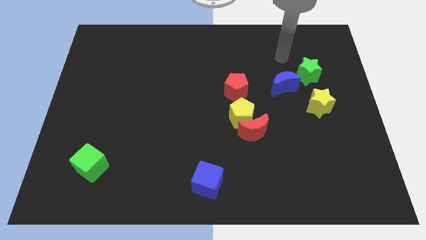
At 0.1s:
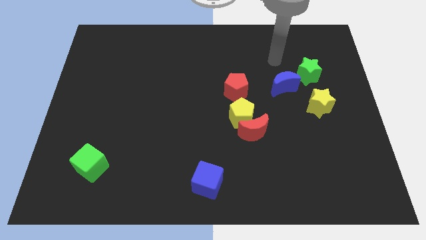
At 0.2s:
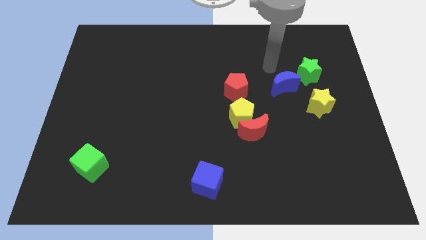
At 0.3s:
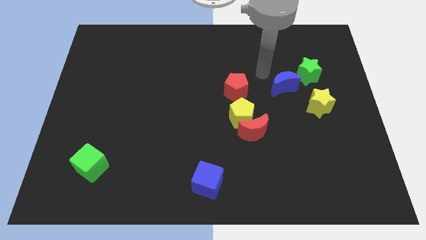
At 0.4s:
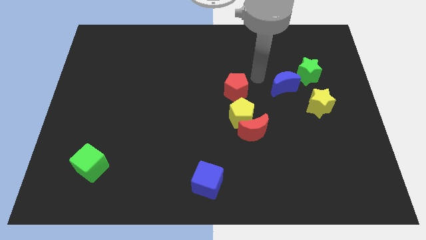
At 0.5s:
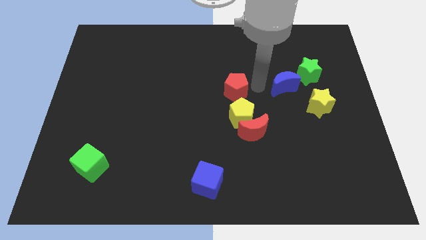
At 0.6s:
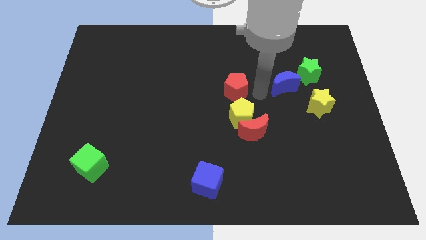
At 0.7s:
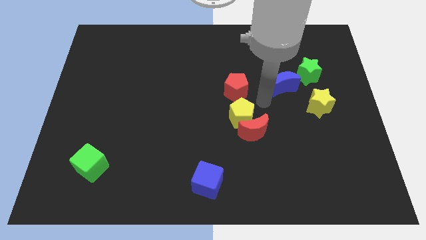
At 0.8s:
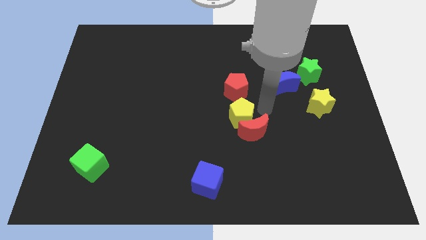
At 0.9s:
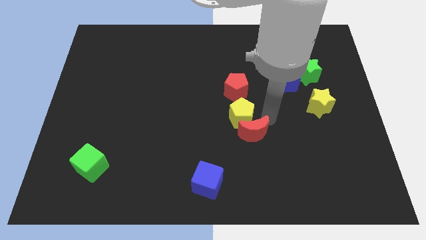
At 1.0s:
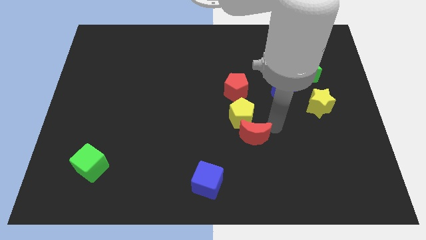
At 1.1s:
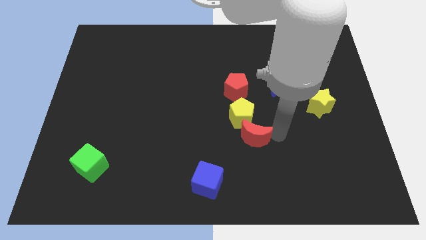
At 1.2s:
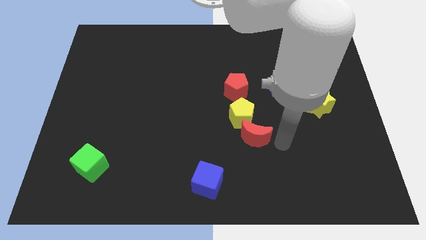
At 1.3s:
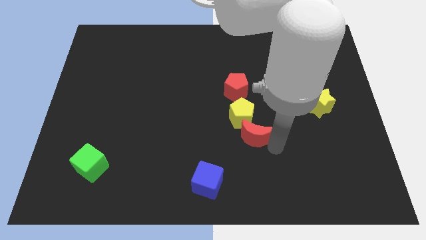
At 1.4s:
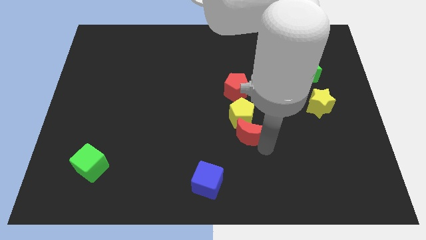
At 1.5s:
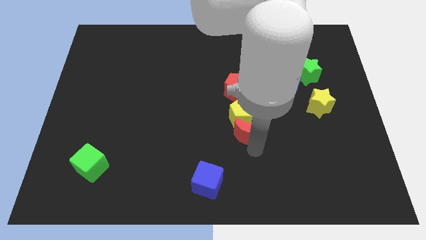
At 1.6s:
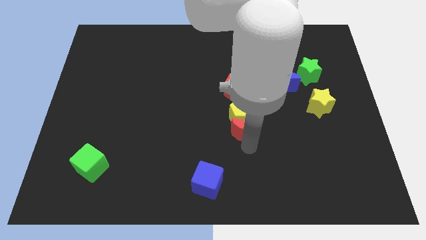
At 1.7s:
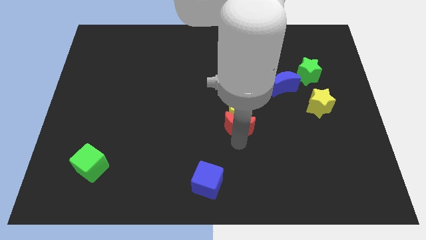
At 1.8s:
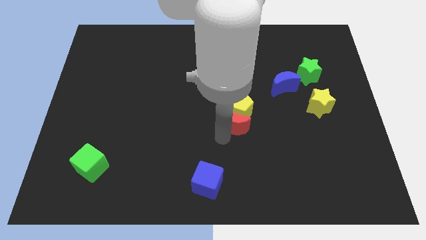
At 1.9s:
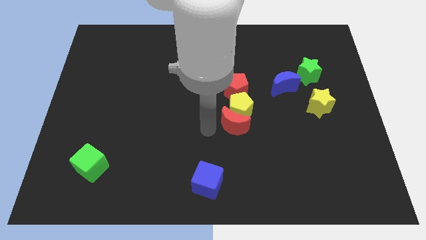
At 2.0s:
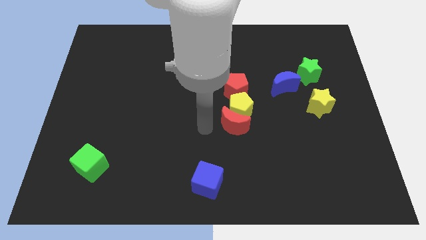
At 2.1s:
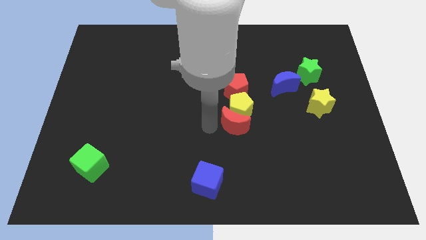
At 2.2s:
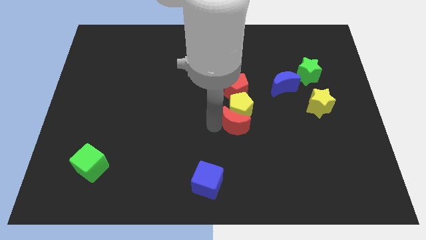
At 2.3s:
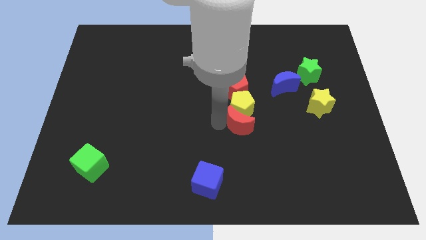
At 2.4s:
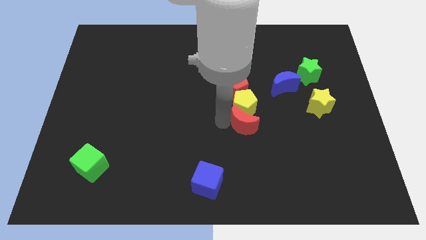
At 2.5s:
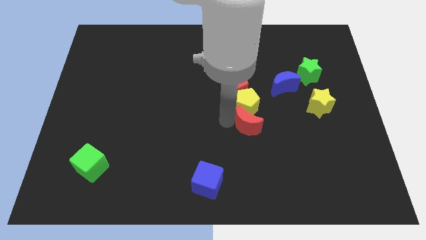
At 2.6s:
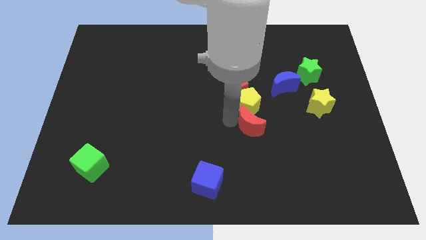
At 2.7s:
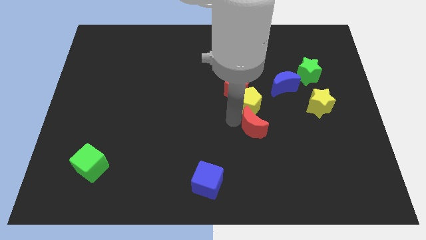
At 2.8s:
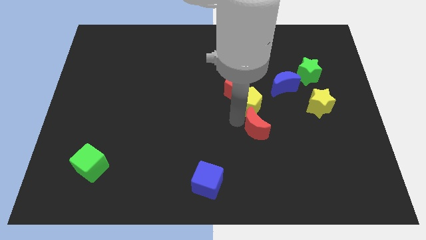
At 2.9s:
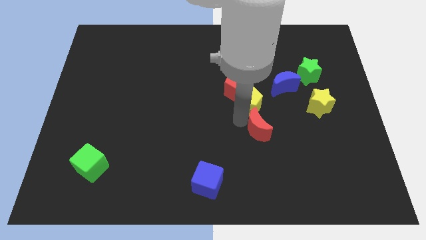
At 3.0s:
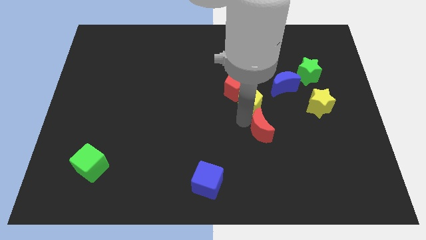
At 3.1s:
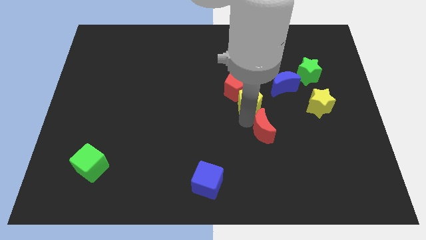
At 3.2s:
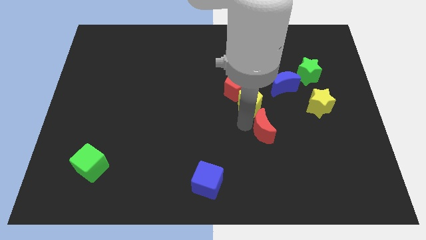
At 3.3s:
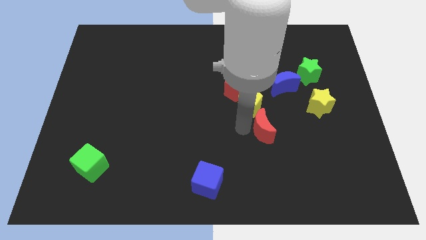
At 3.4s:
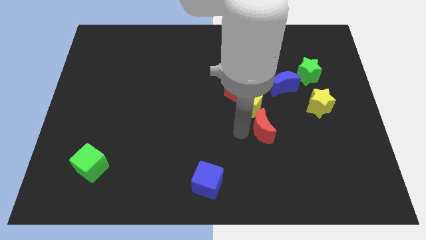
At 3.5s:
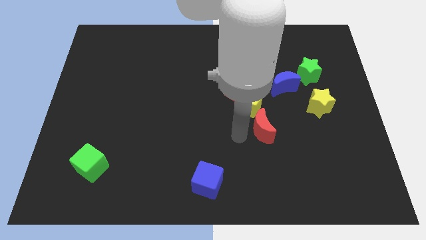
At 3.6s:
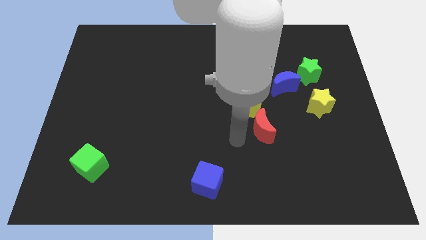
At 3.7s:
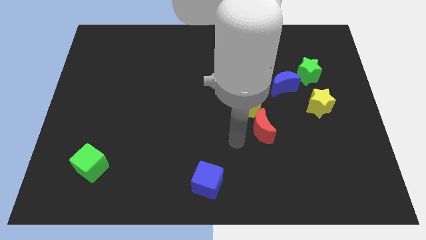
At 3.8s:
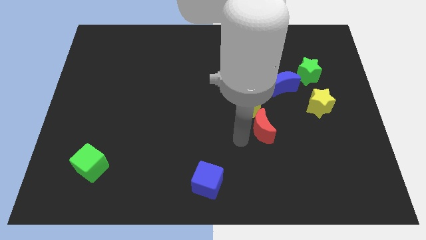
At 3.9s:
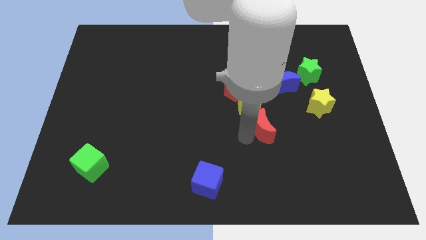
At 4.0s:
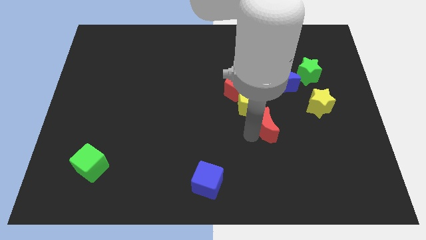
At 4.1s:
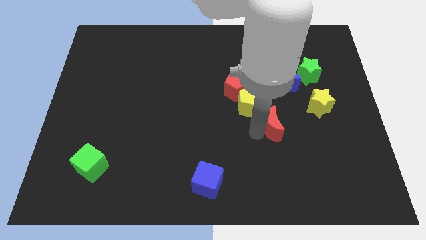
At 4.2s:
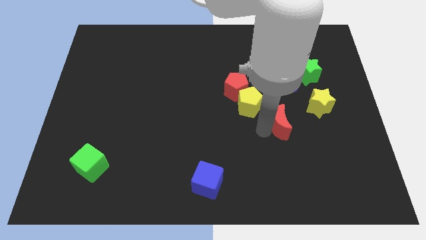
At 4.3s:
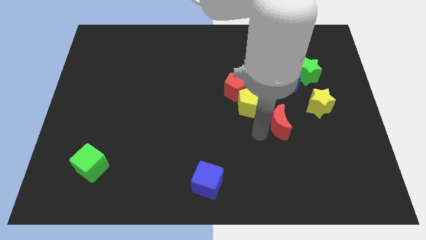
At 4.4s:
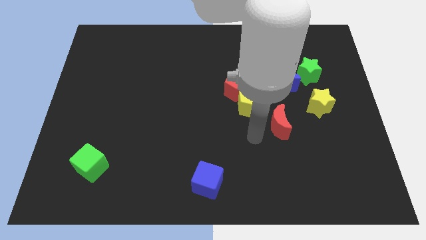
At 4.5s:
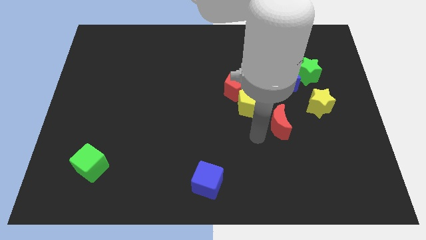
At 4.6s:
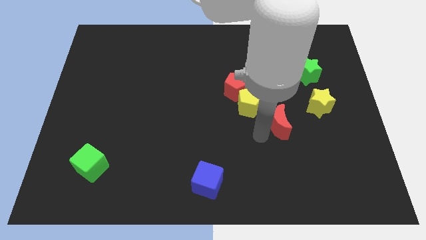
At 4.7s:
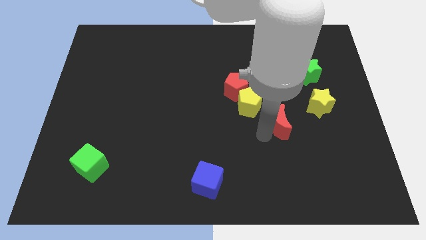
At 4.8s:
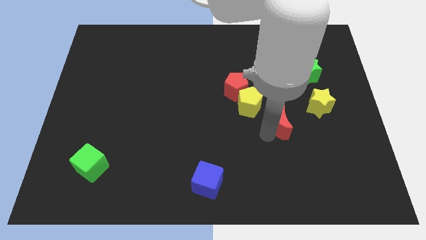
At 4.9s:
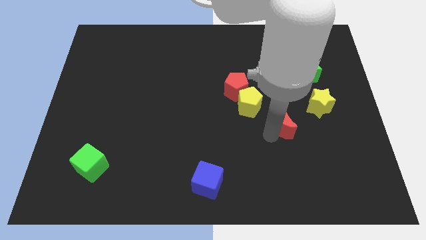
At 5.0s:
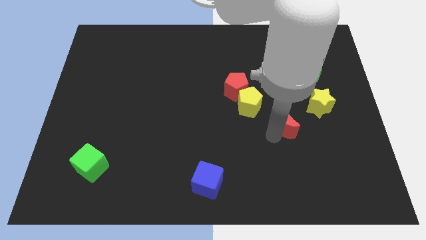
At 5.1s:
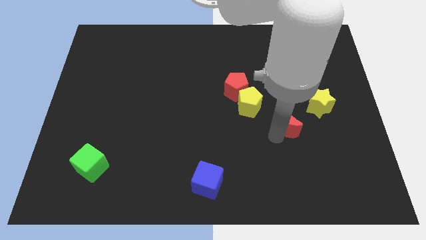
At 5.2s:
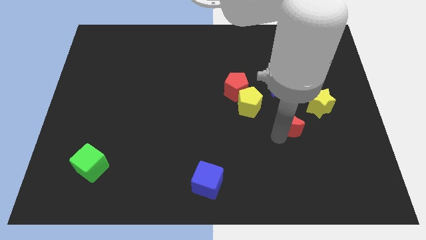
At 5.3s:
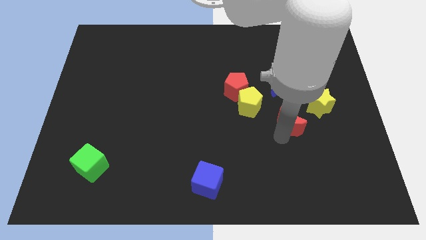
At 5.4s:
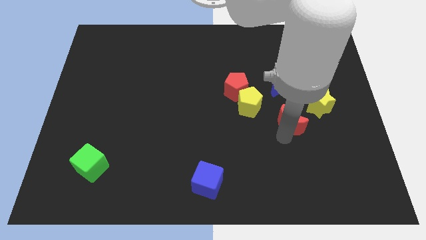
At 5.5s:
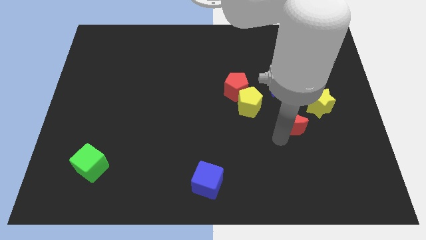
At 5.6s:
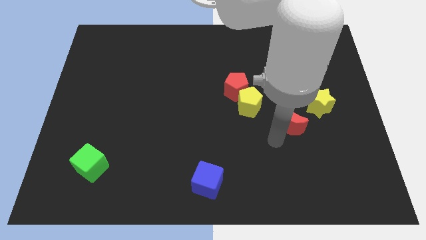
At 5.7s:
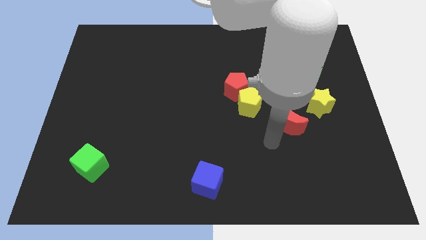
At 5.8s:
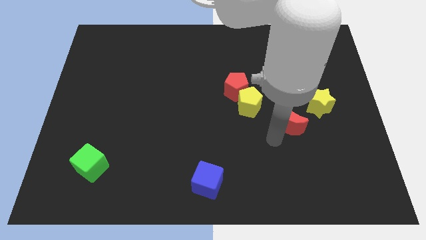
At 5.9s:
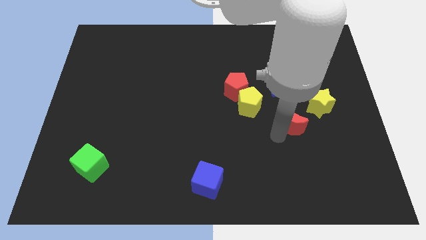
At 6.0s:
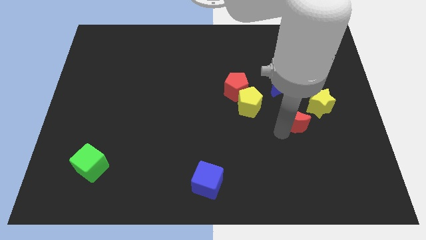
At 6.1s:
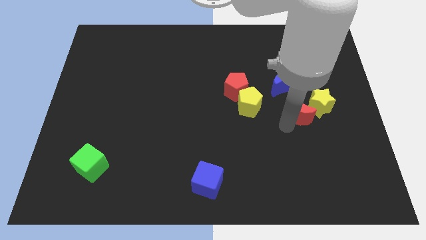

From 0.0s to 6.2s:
move the red moon close to the yellow star

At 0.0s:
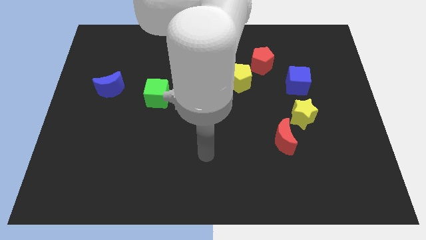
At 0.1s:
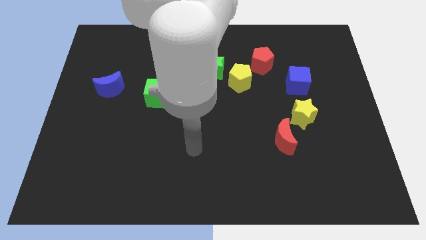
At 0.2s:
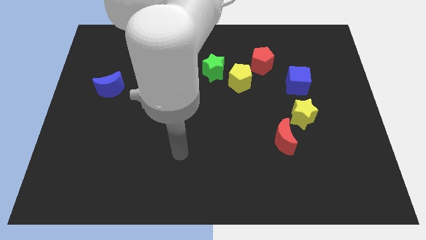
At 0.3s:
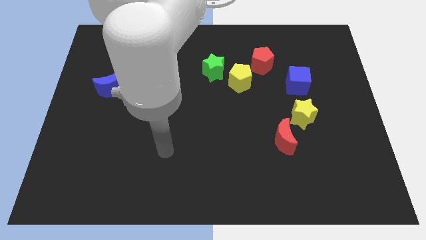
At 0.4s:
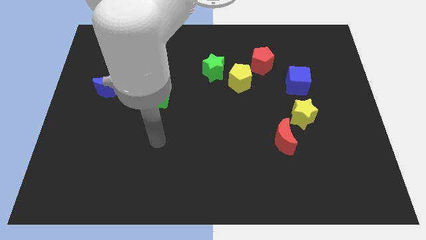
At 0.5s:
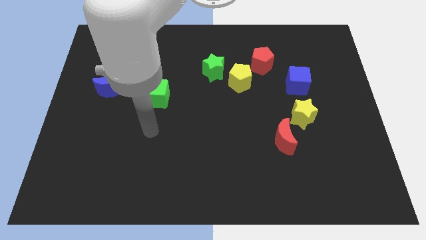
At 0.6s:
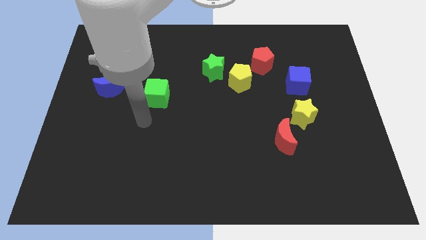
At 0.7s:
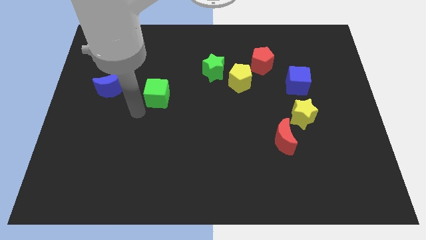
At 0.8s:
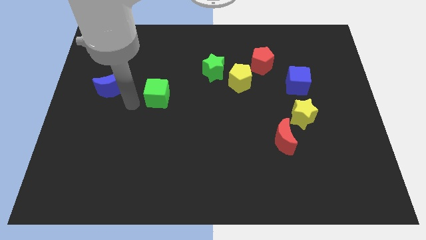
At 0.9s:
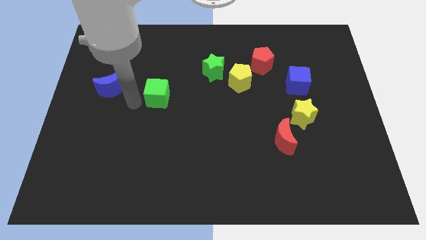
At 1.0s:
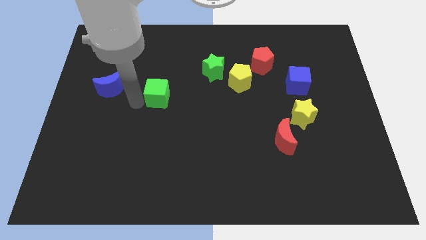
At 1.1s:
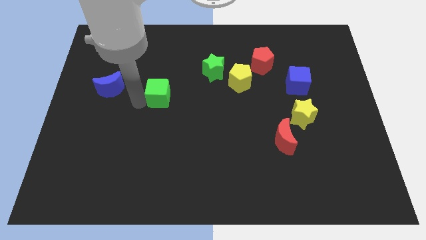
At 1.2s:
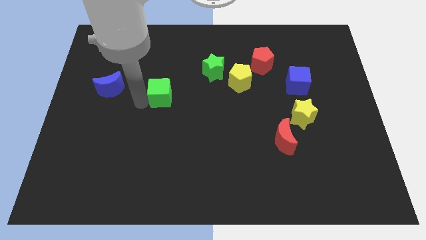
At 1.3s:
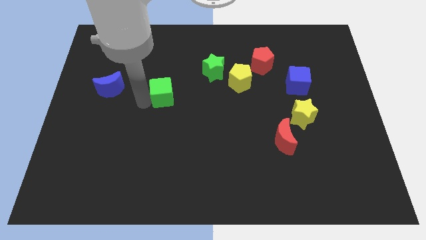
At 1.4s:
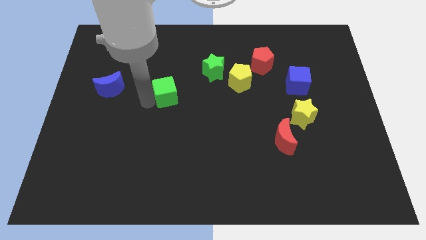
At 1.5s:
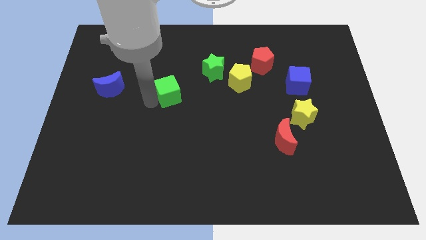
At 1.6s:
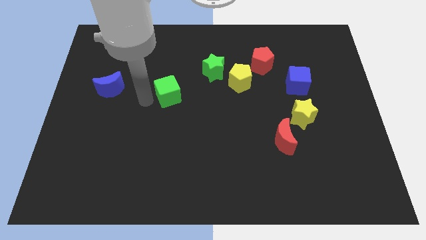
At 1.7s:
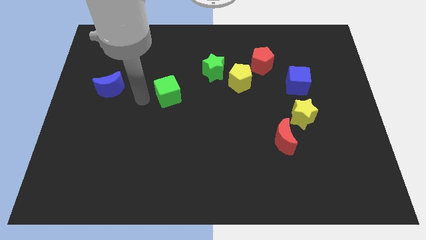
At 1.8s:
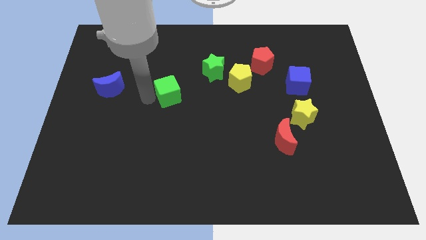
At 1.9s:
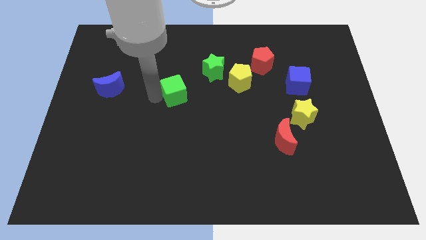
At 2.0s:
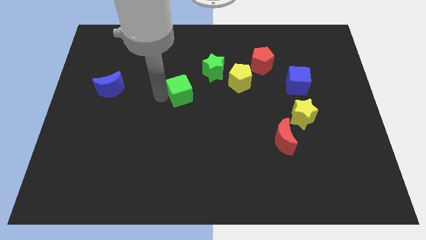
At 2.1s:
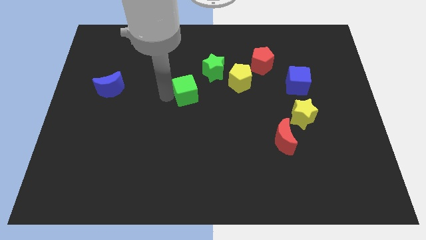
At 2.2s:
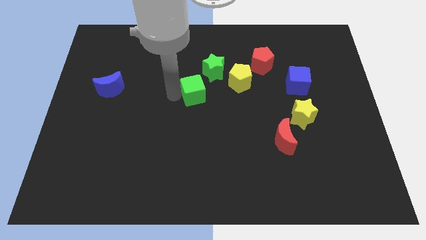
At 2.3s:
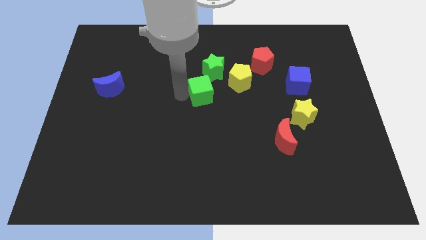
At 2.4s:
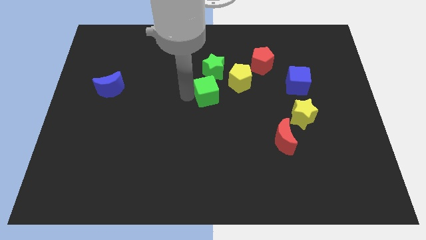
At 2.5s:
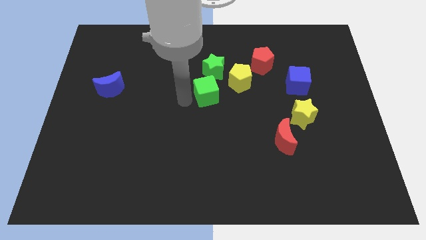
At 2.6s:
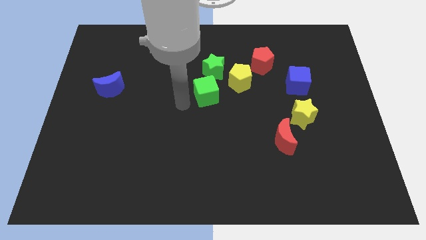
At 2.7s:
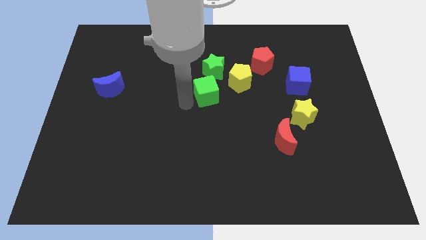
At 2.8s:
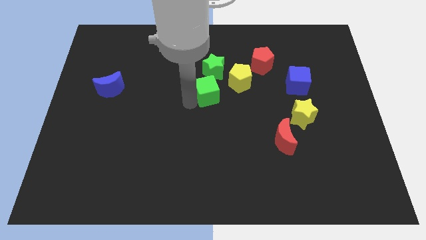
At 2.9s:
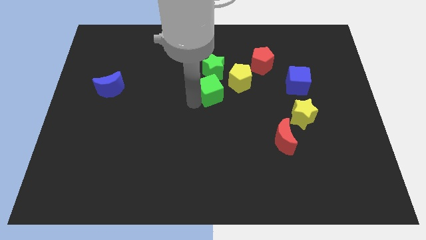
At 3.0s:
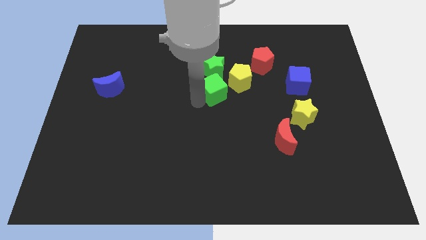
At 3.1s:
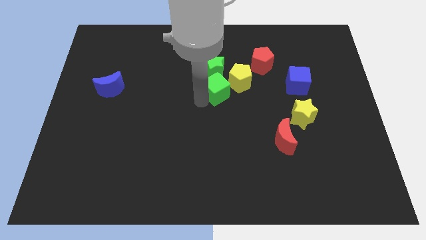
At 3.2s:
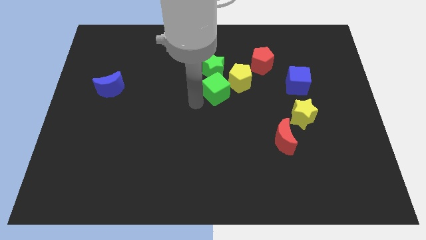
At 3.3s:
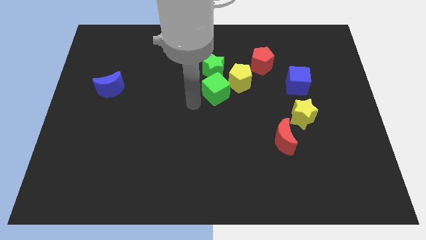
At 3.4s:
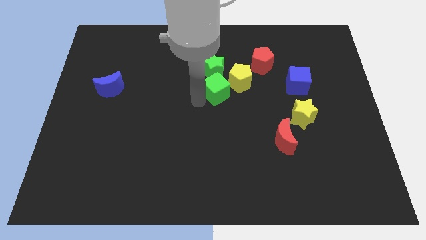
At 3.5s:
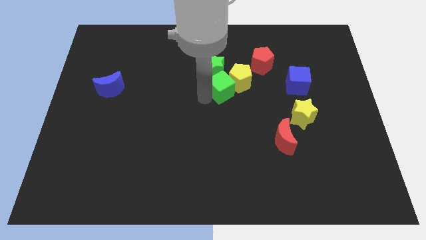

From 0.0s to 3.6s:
put the green cube towards the yellow pentagon
